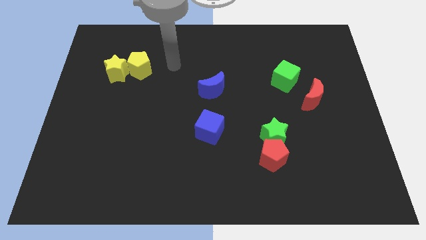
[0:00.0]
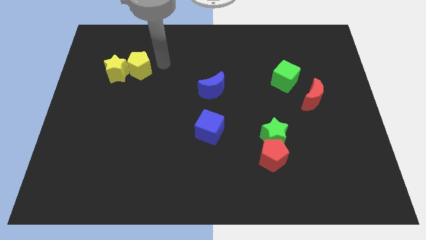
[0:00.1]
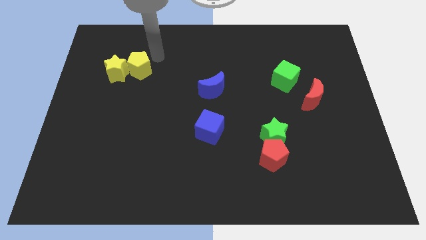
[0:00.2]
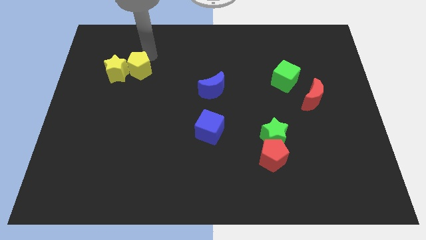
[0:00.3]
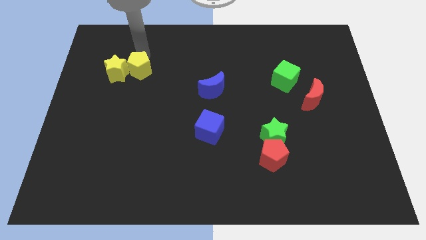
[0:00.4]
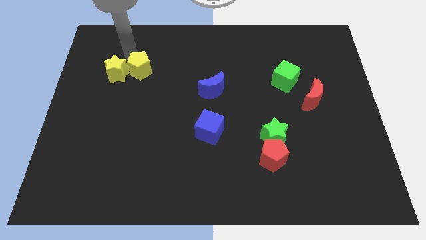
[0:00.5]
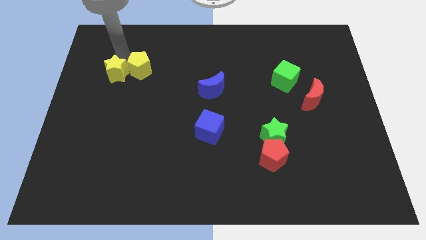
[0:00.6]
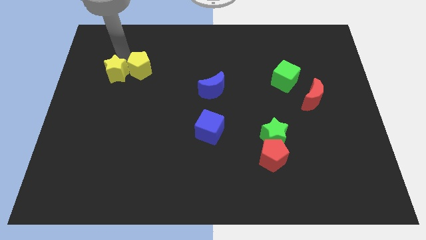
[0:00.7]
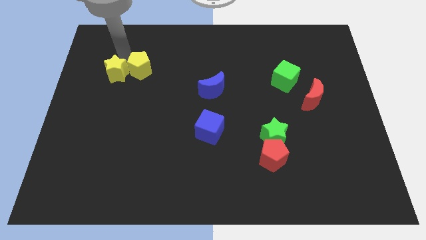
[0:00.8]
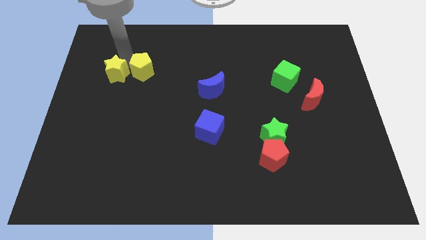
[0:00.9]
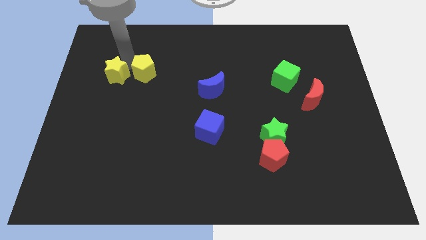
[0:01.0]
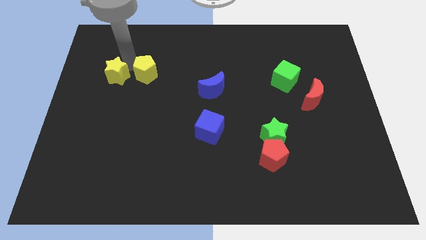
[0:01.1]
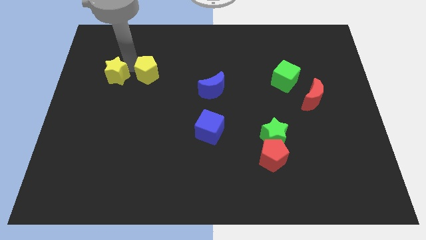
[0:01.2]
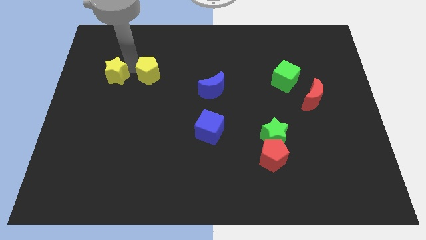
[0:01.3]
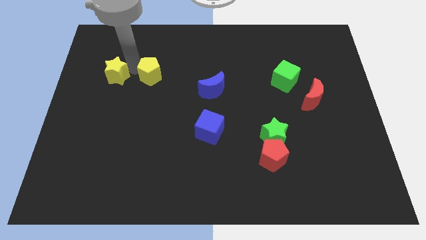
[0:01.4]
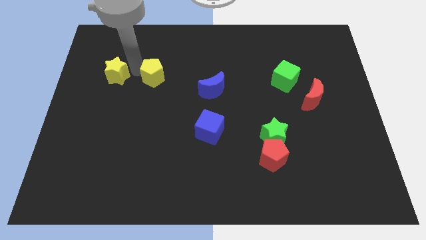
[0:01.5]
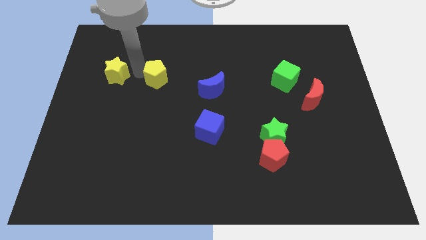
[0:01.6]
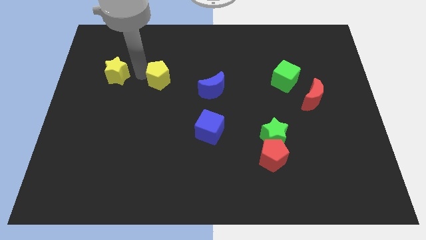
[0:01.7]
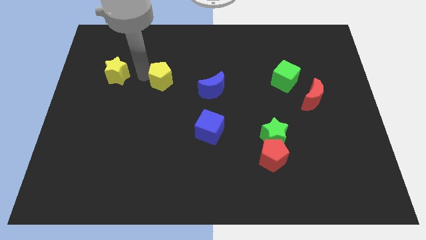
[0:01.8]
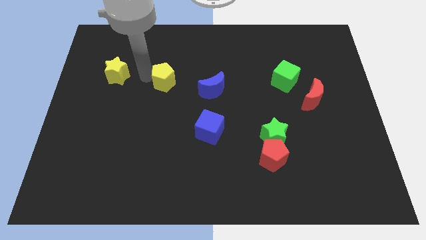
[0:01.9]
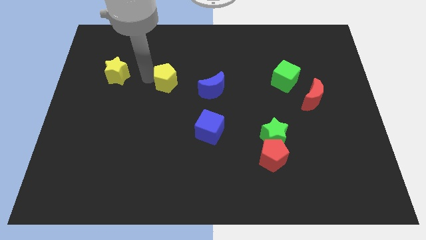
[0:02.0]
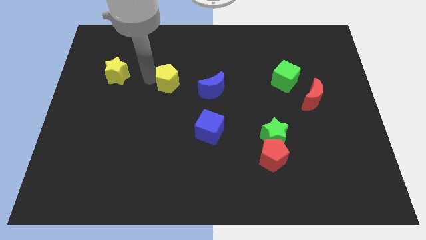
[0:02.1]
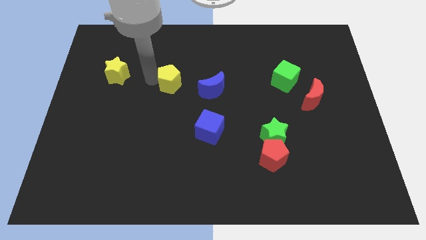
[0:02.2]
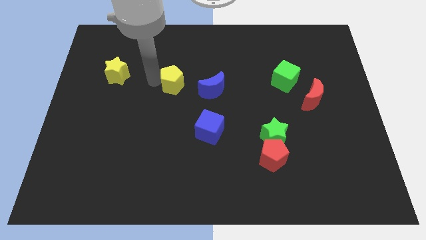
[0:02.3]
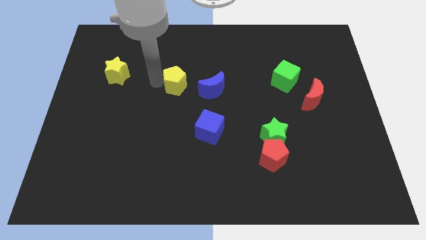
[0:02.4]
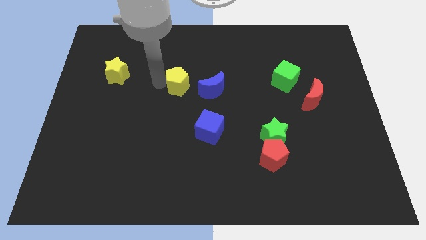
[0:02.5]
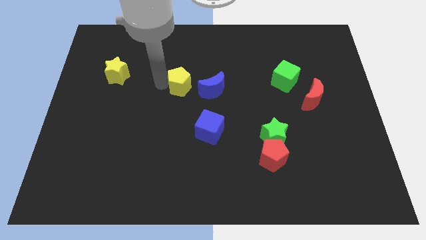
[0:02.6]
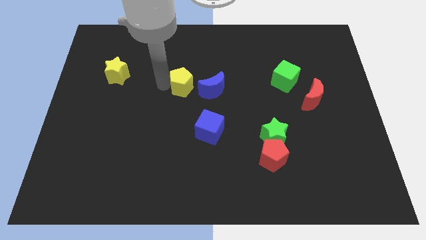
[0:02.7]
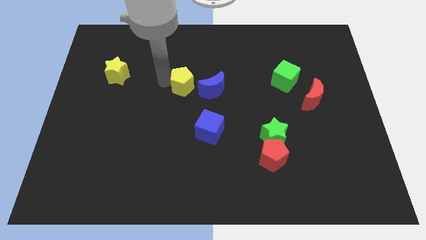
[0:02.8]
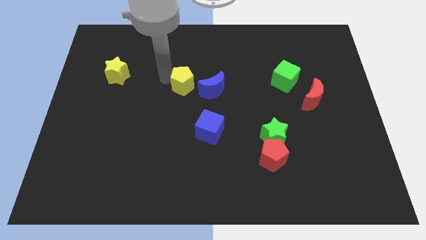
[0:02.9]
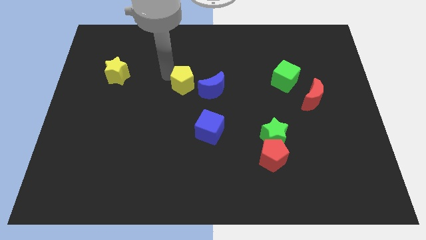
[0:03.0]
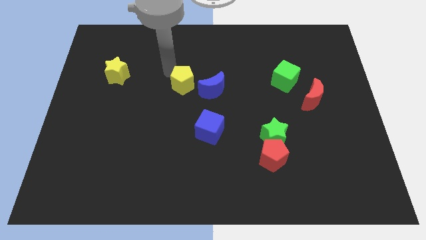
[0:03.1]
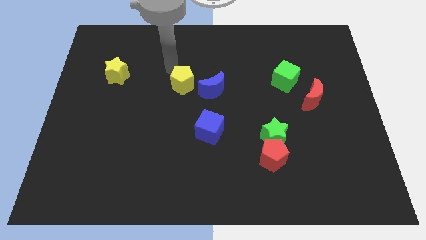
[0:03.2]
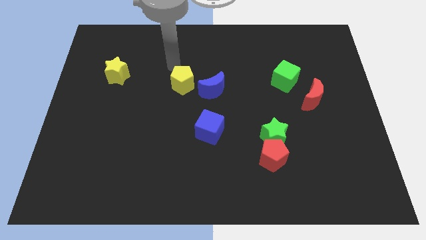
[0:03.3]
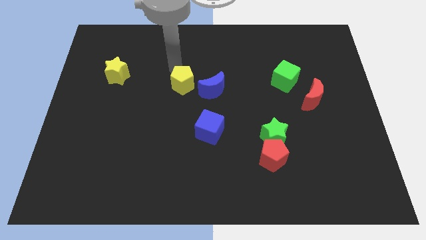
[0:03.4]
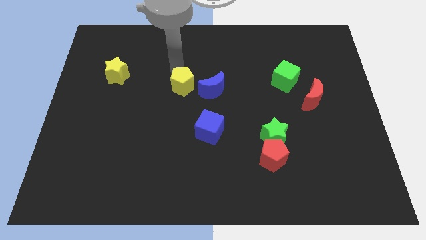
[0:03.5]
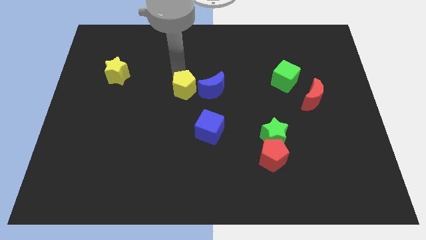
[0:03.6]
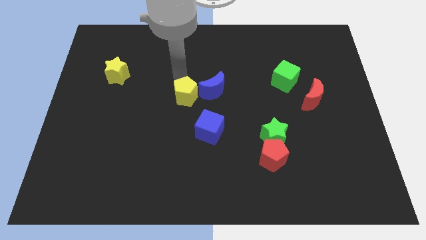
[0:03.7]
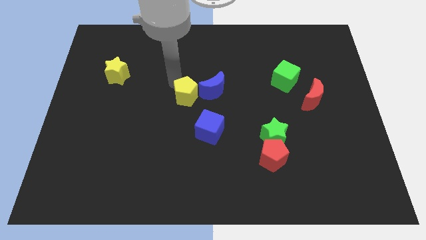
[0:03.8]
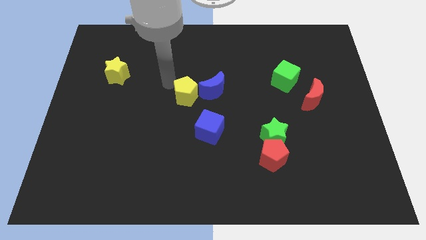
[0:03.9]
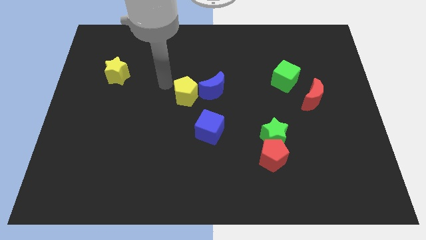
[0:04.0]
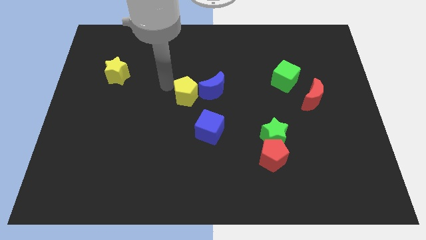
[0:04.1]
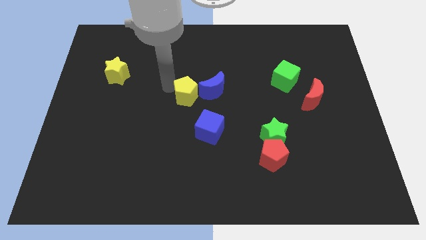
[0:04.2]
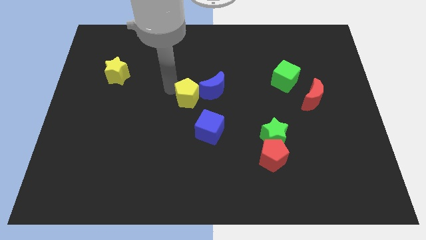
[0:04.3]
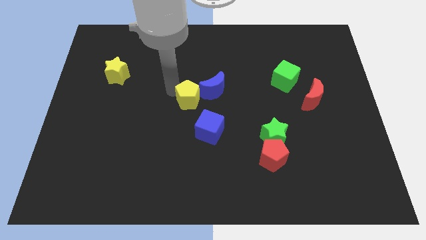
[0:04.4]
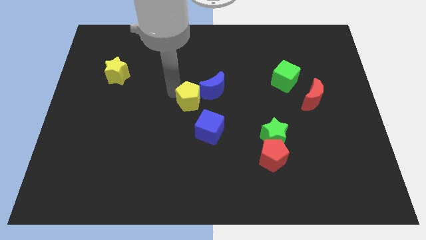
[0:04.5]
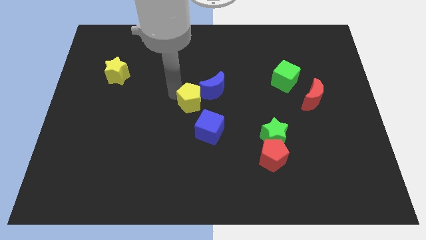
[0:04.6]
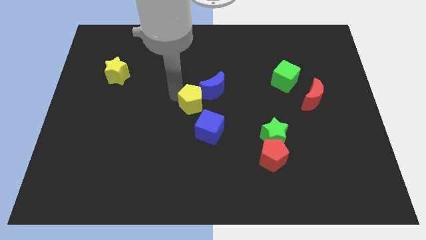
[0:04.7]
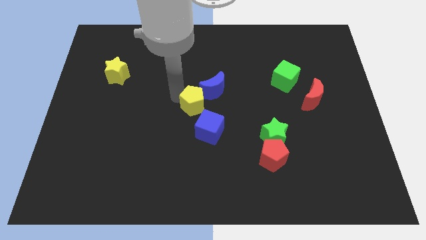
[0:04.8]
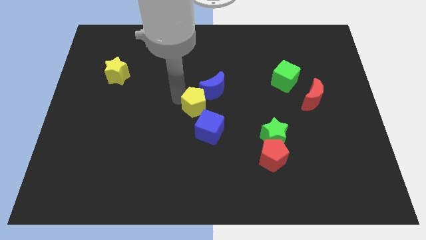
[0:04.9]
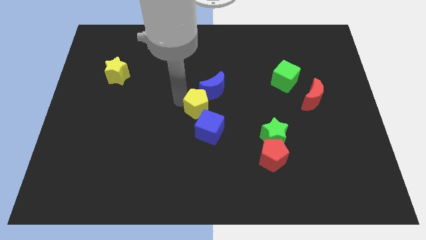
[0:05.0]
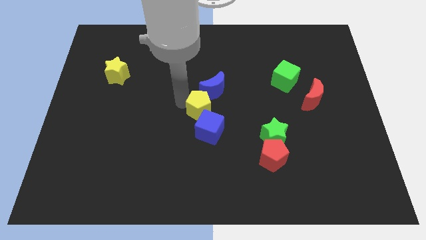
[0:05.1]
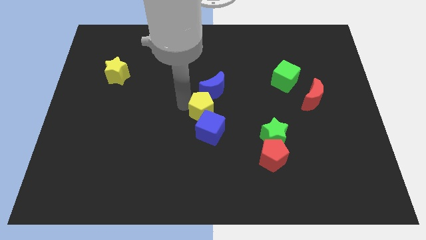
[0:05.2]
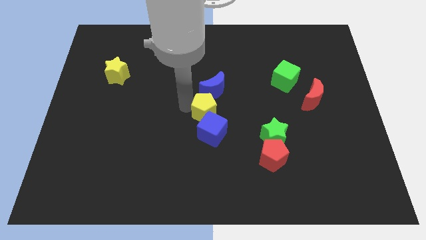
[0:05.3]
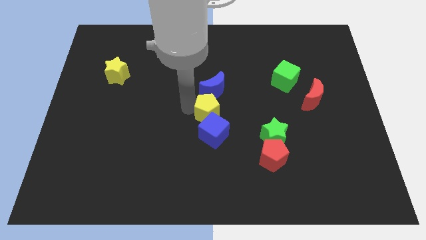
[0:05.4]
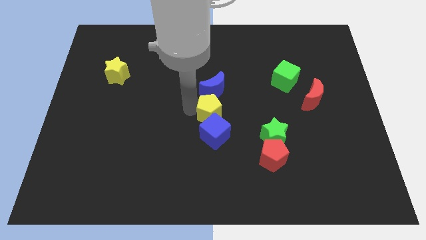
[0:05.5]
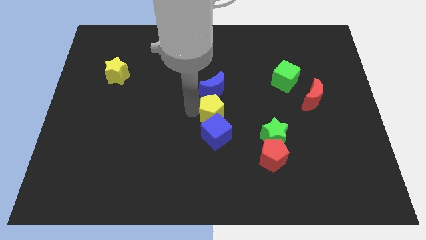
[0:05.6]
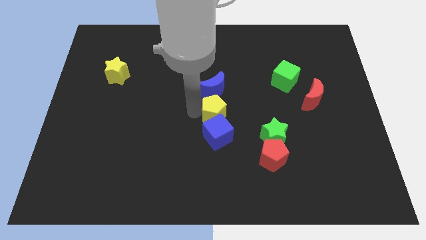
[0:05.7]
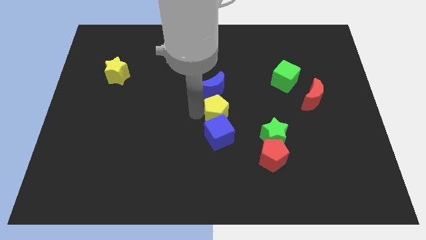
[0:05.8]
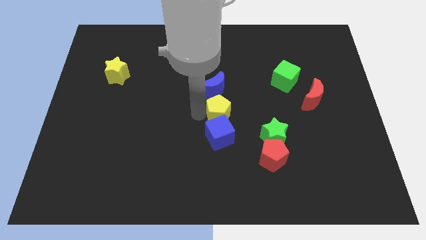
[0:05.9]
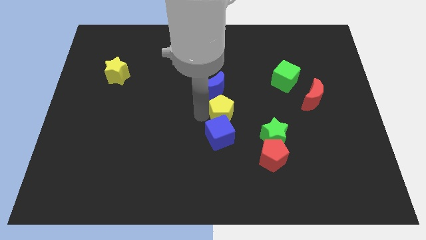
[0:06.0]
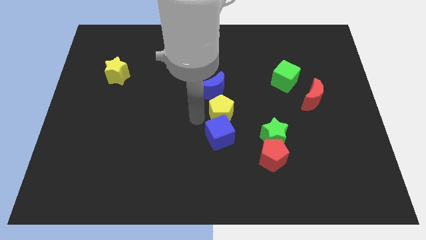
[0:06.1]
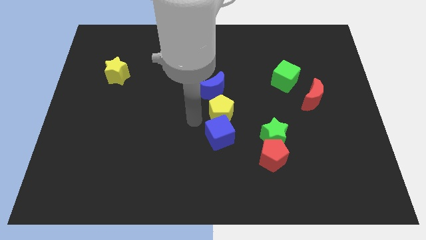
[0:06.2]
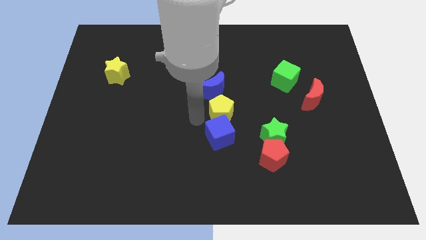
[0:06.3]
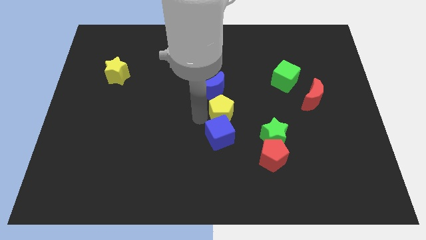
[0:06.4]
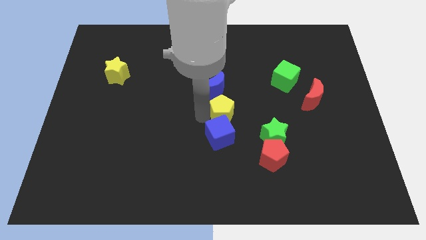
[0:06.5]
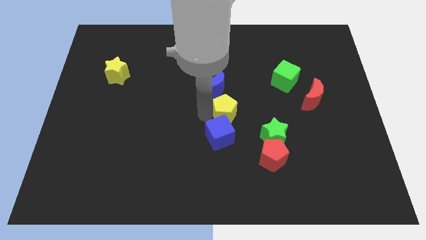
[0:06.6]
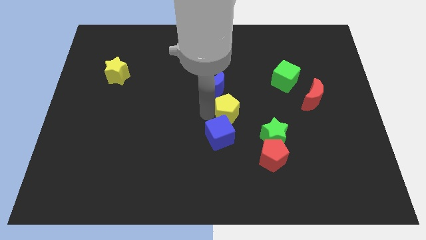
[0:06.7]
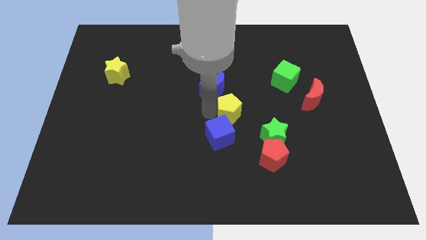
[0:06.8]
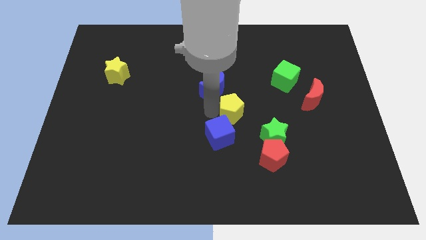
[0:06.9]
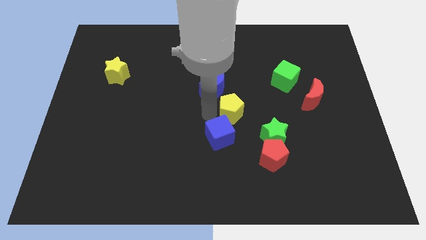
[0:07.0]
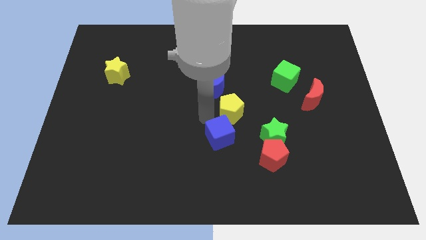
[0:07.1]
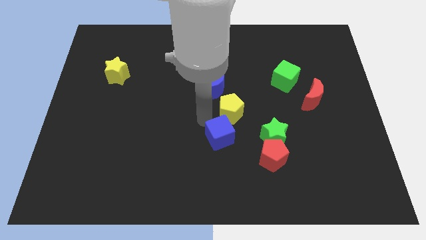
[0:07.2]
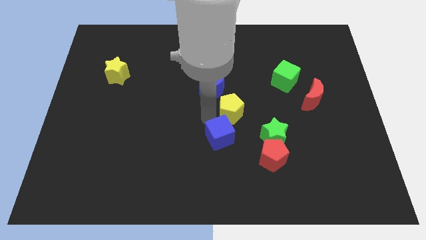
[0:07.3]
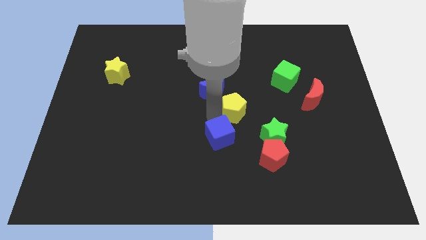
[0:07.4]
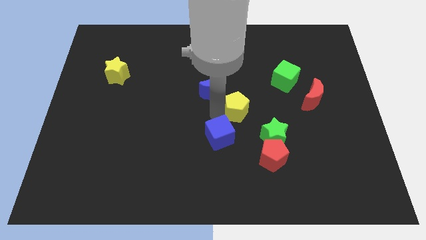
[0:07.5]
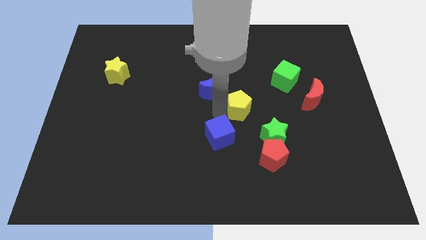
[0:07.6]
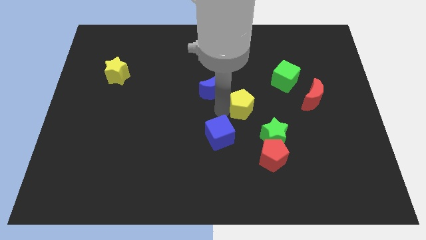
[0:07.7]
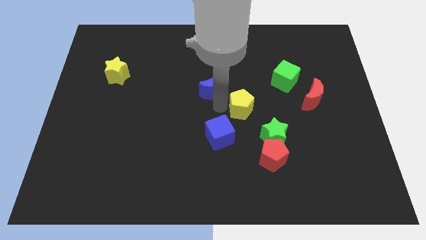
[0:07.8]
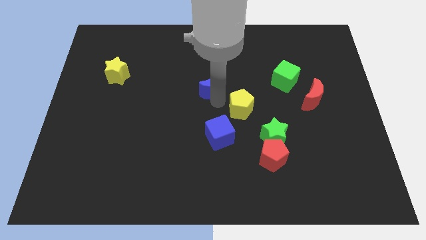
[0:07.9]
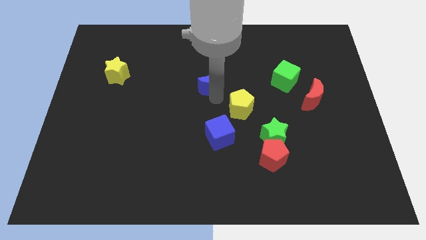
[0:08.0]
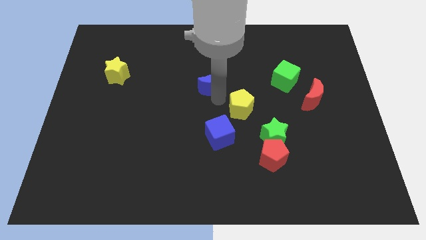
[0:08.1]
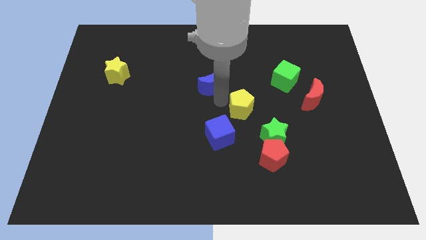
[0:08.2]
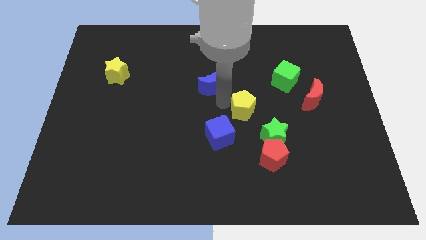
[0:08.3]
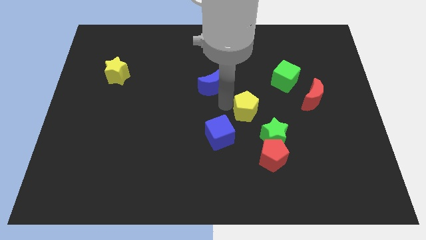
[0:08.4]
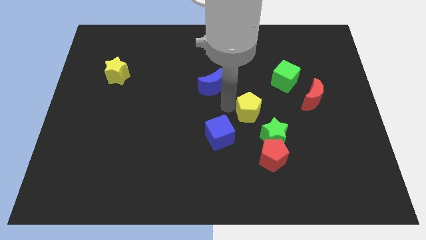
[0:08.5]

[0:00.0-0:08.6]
slide the yellow pentagon to the top side of the red pentagon
